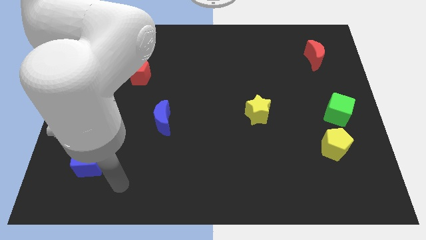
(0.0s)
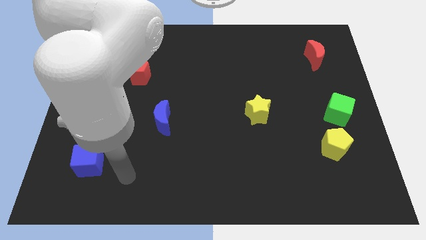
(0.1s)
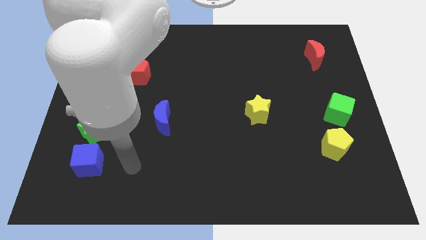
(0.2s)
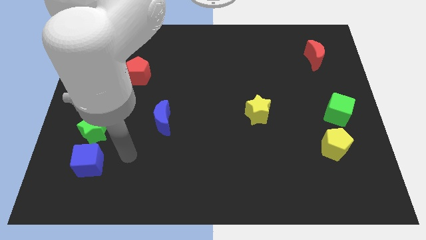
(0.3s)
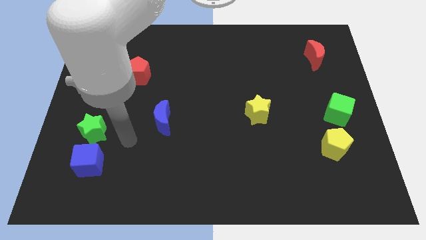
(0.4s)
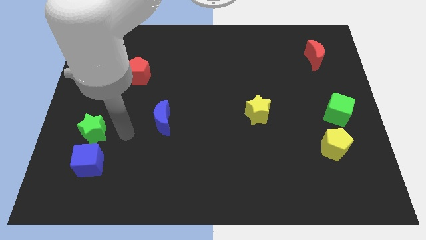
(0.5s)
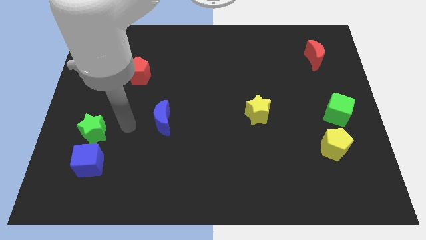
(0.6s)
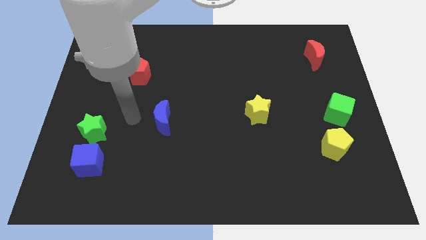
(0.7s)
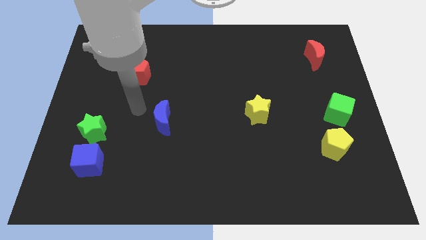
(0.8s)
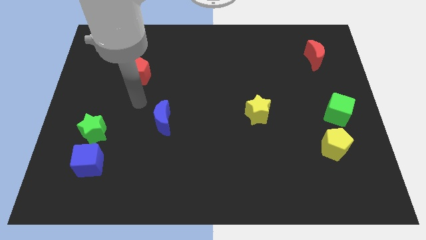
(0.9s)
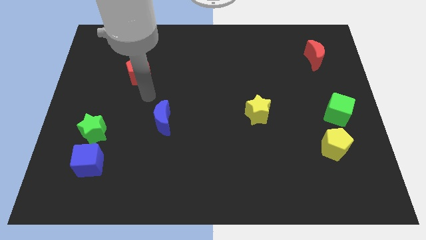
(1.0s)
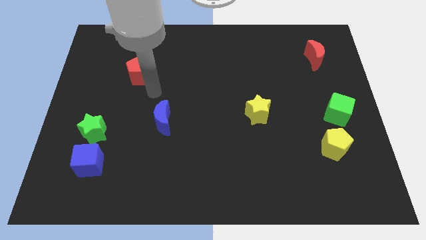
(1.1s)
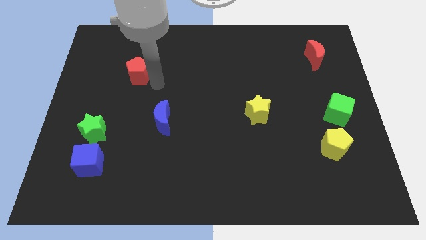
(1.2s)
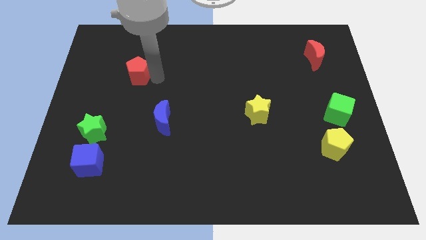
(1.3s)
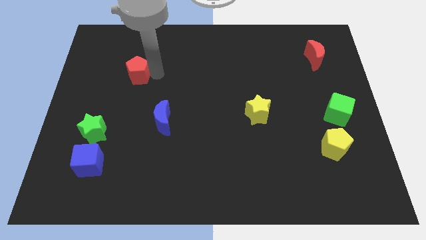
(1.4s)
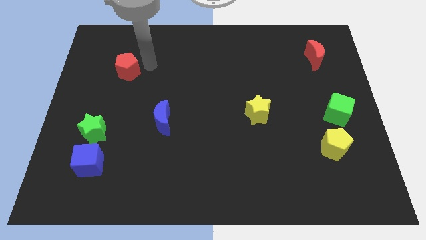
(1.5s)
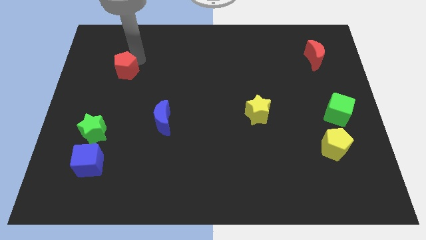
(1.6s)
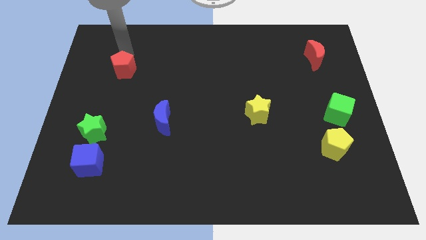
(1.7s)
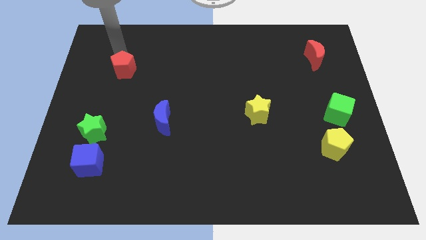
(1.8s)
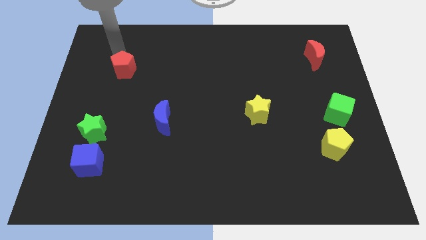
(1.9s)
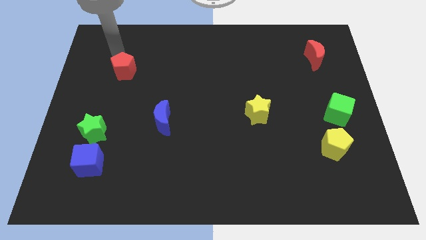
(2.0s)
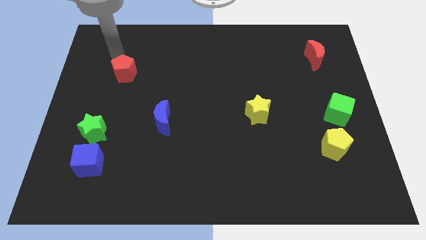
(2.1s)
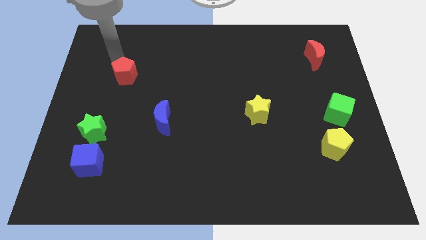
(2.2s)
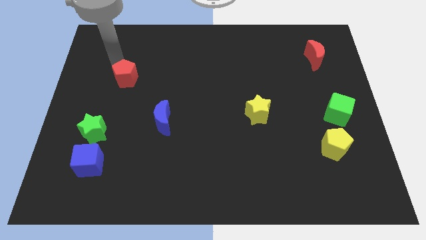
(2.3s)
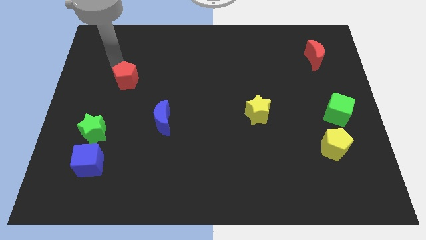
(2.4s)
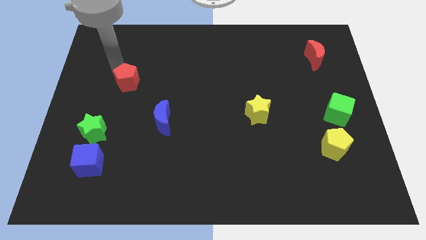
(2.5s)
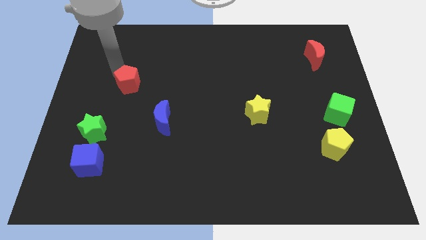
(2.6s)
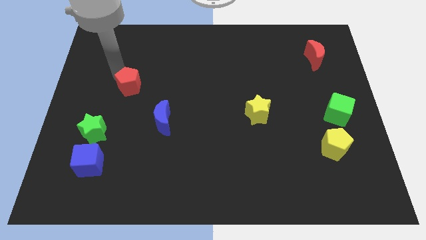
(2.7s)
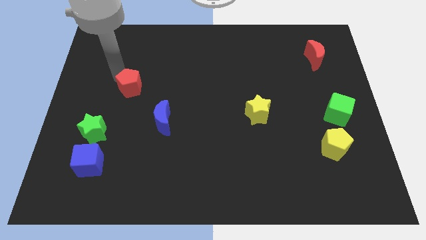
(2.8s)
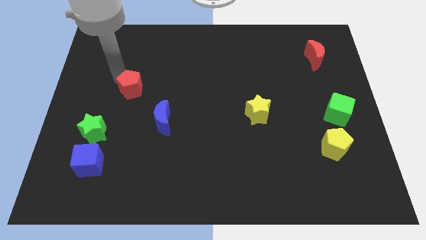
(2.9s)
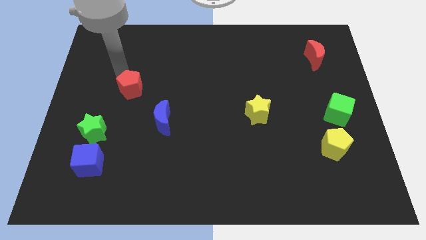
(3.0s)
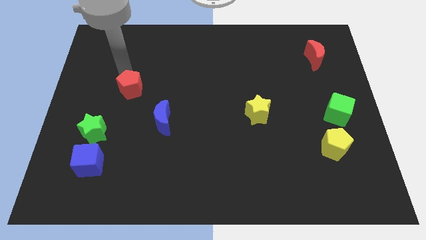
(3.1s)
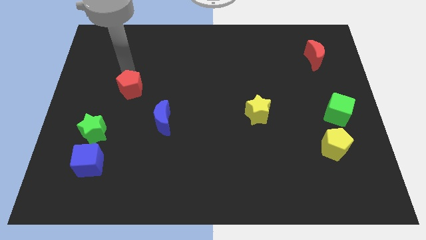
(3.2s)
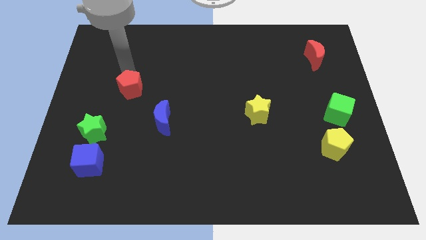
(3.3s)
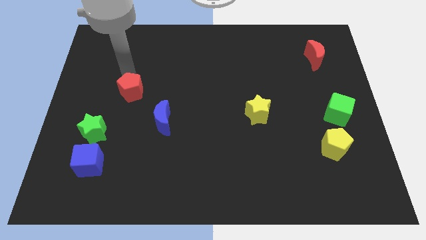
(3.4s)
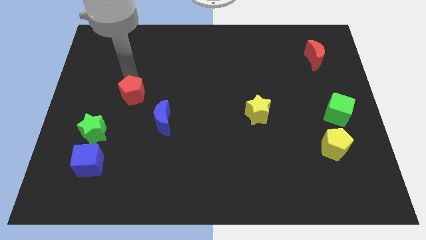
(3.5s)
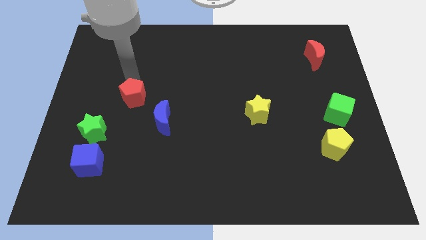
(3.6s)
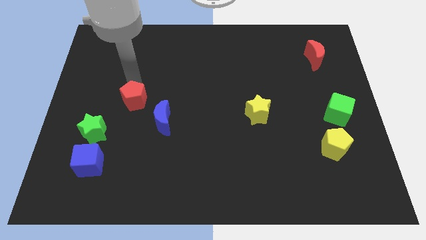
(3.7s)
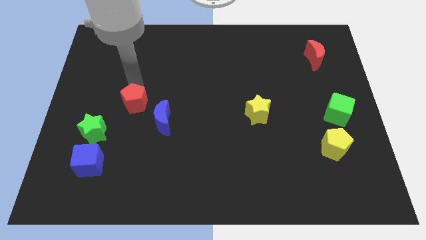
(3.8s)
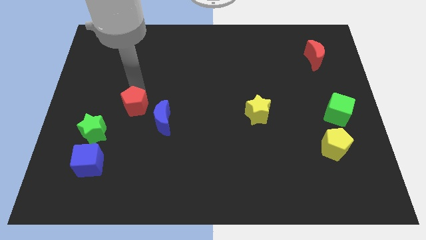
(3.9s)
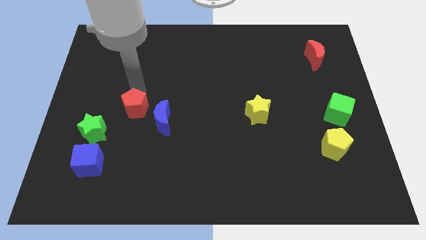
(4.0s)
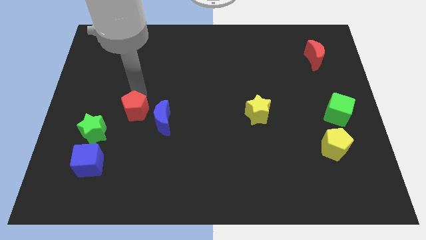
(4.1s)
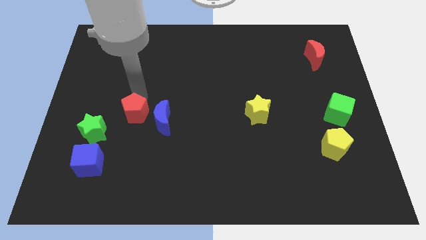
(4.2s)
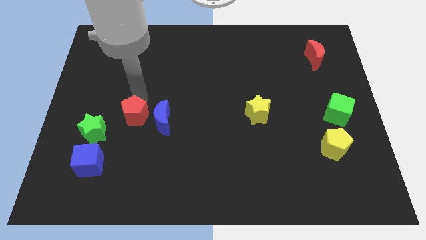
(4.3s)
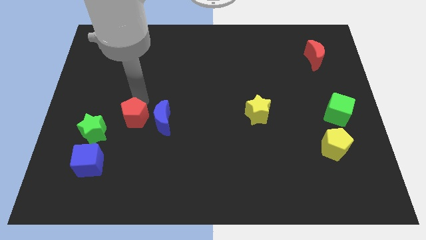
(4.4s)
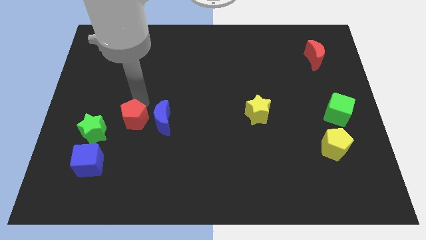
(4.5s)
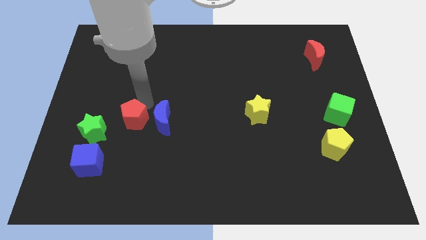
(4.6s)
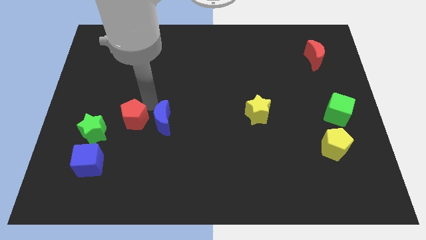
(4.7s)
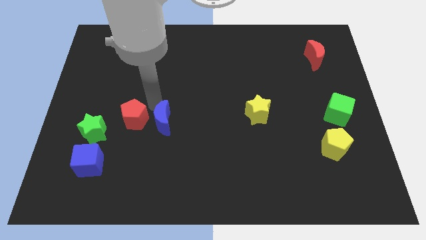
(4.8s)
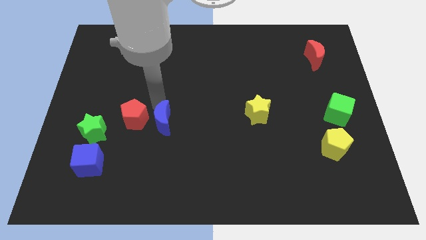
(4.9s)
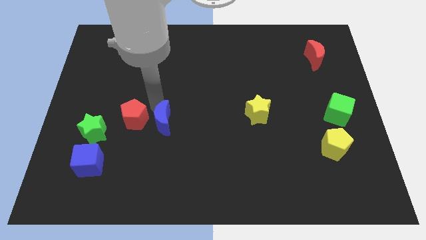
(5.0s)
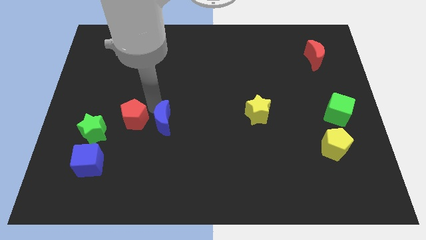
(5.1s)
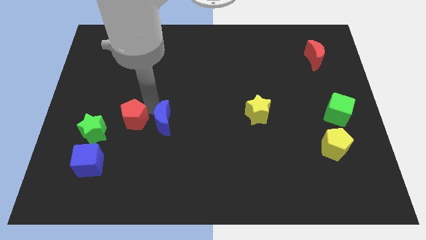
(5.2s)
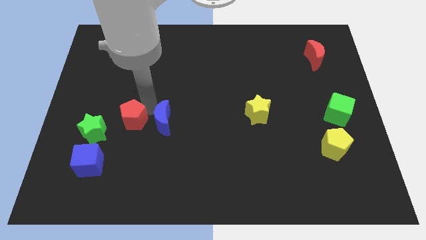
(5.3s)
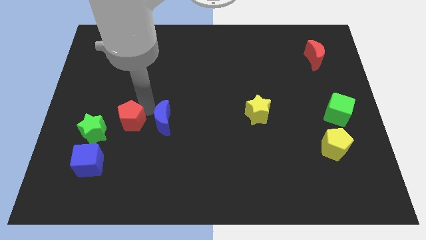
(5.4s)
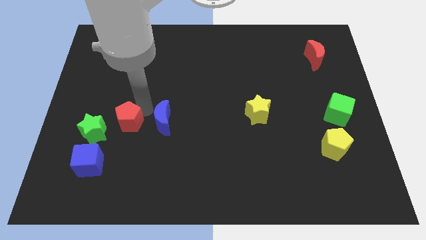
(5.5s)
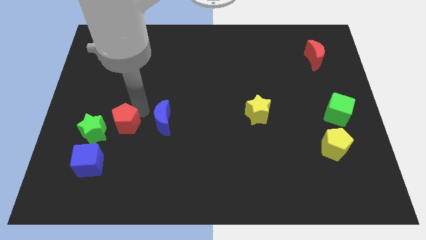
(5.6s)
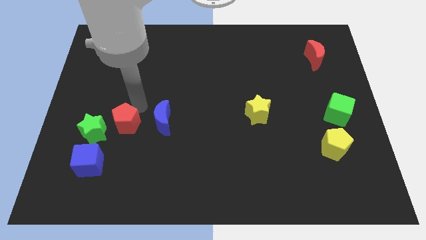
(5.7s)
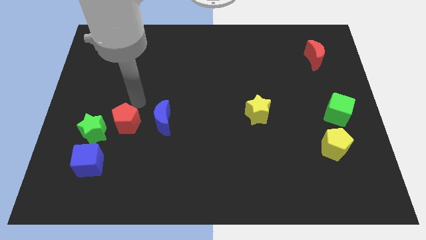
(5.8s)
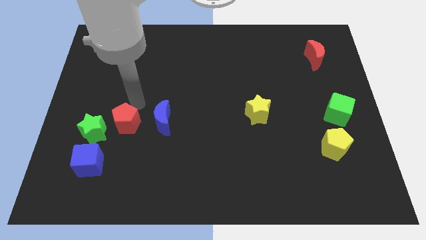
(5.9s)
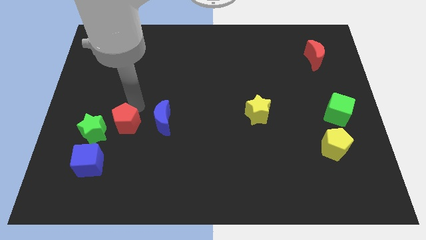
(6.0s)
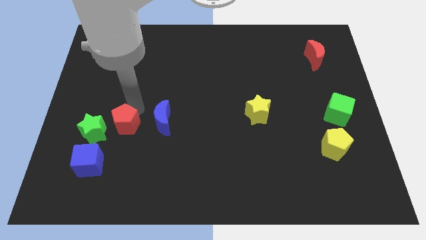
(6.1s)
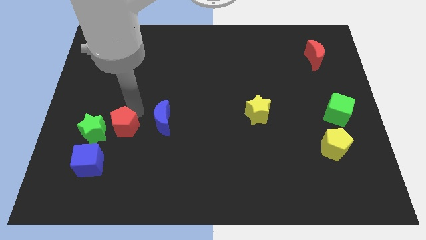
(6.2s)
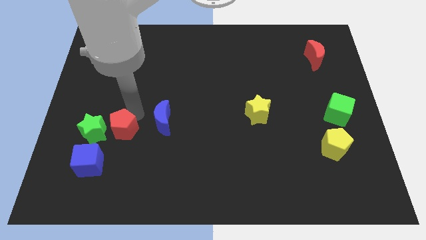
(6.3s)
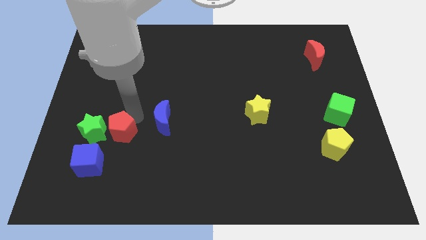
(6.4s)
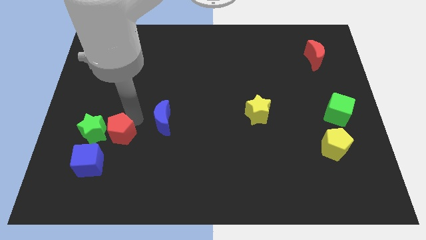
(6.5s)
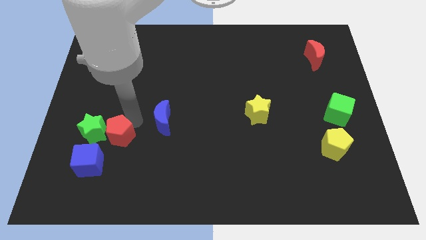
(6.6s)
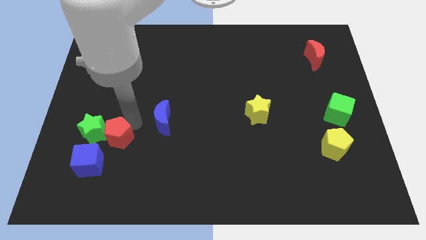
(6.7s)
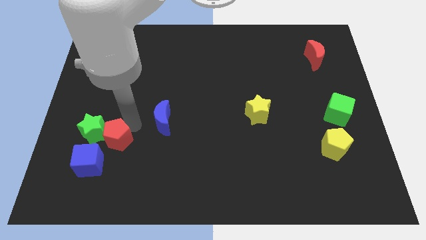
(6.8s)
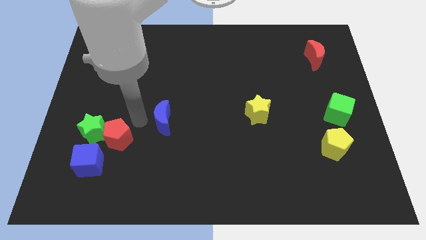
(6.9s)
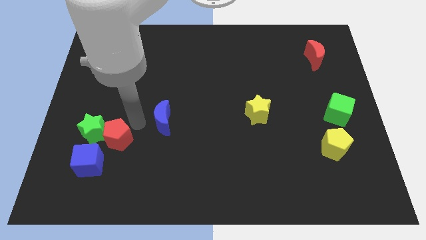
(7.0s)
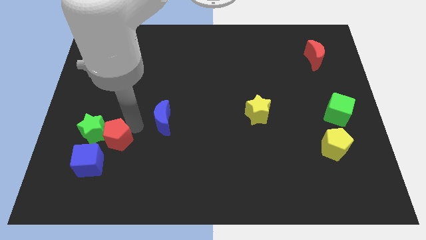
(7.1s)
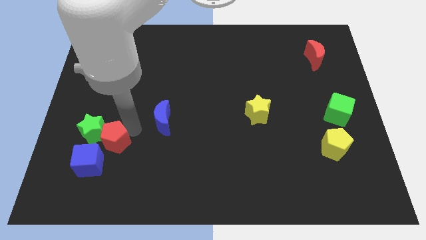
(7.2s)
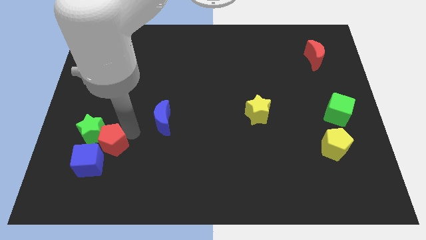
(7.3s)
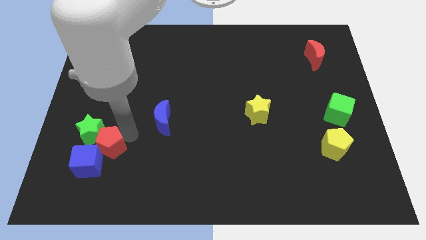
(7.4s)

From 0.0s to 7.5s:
move the red pentagon to the blue cube
